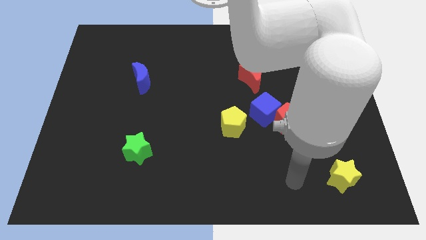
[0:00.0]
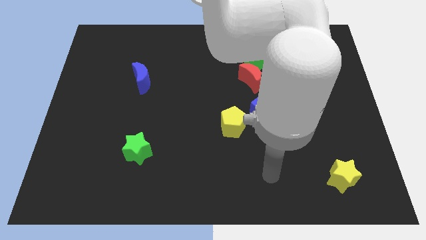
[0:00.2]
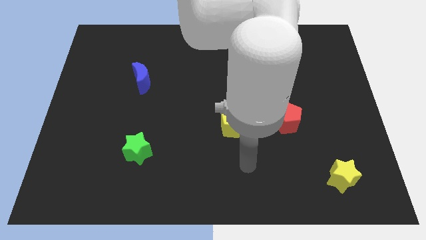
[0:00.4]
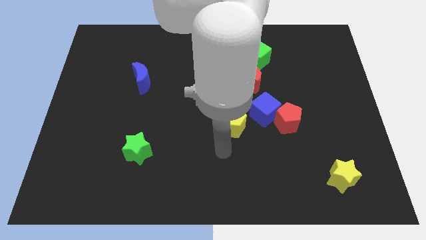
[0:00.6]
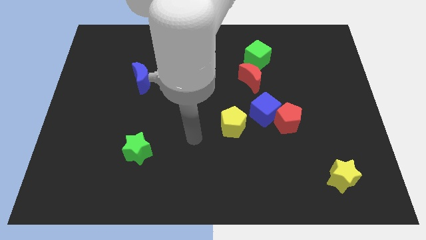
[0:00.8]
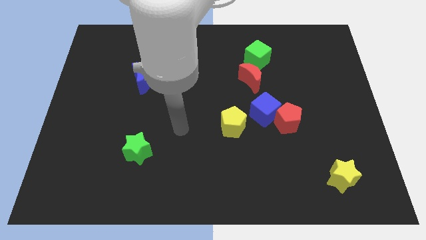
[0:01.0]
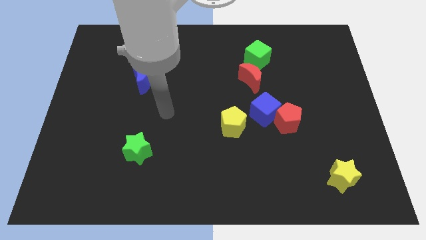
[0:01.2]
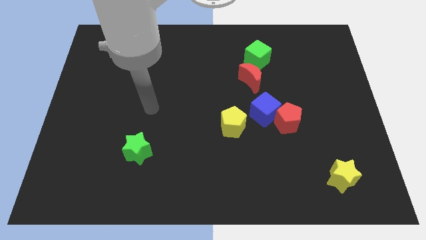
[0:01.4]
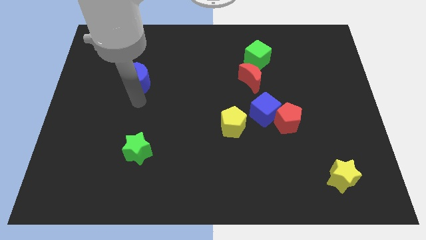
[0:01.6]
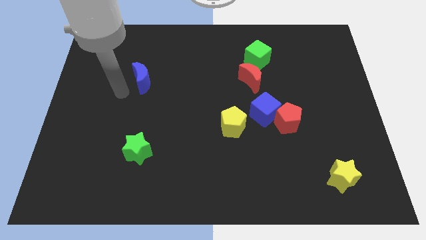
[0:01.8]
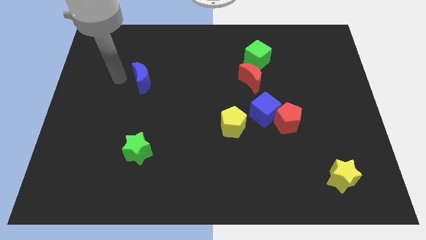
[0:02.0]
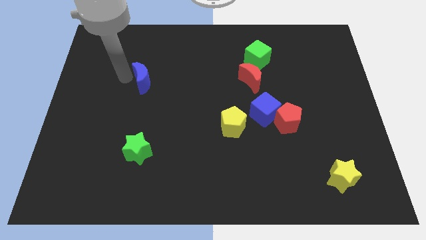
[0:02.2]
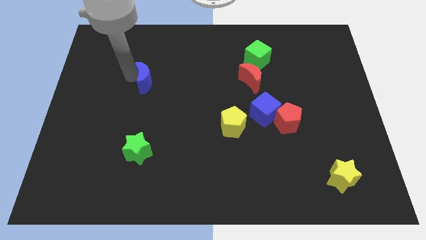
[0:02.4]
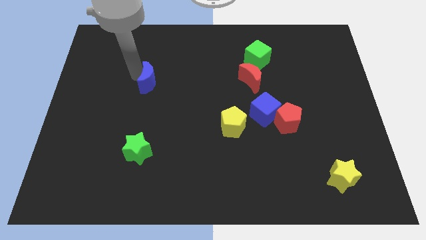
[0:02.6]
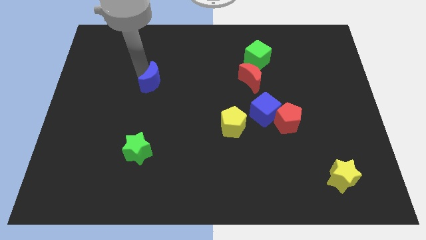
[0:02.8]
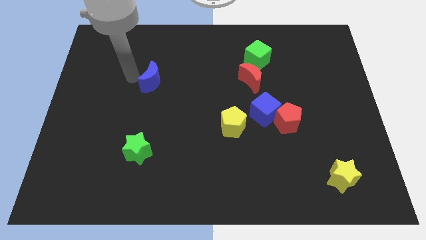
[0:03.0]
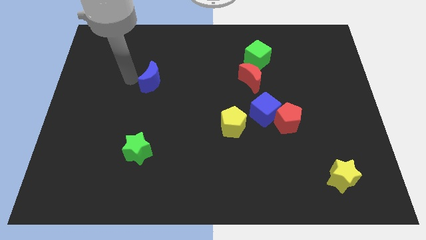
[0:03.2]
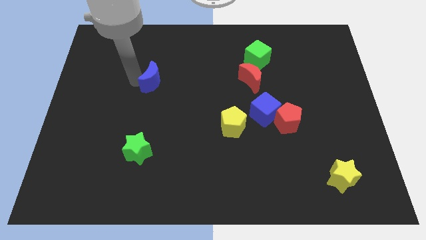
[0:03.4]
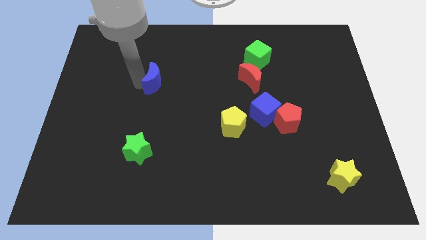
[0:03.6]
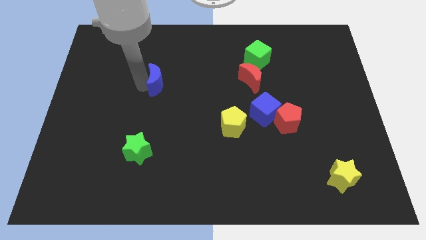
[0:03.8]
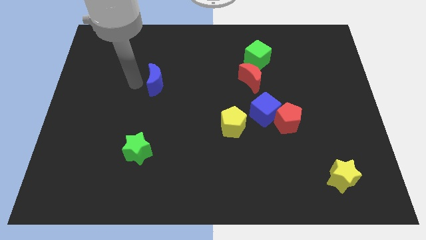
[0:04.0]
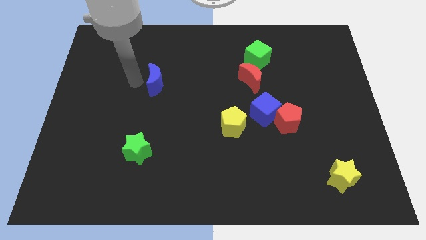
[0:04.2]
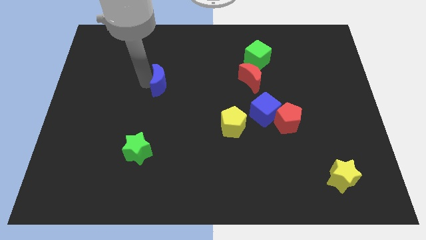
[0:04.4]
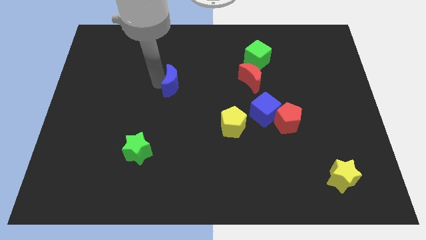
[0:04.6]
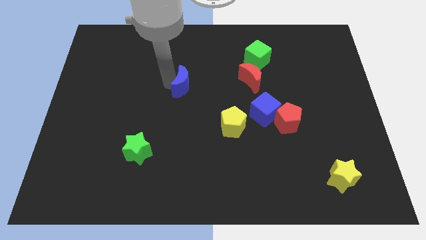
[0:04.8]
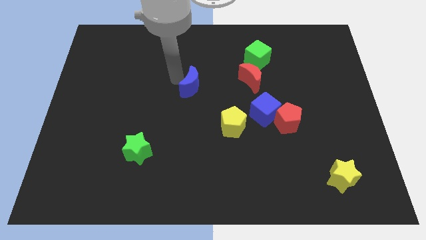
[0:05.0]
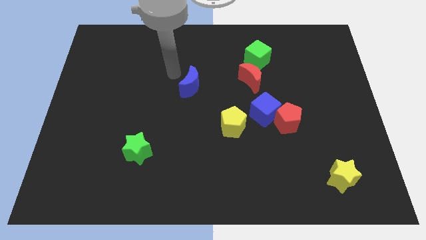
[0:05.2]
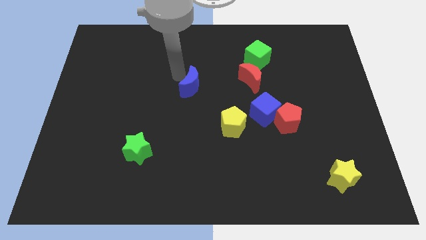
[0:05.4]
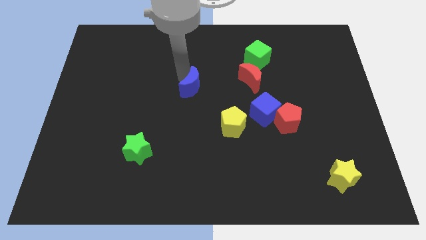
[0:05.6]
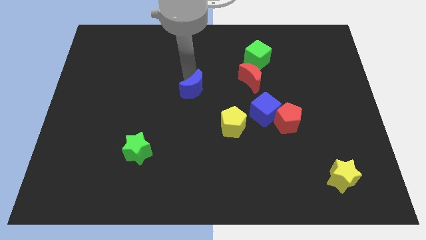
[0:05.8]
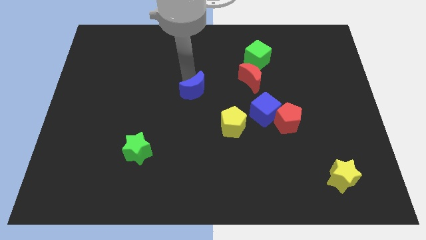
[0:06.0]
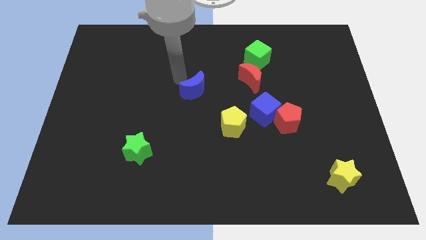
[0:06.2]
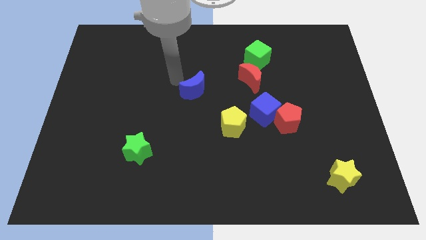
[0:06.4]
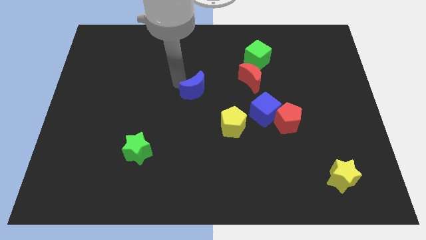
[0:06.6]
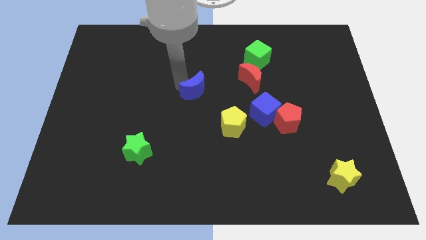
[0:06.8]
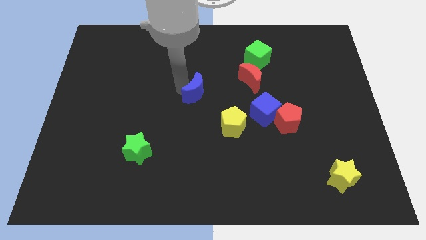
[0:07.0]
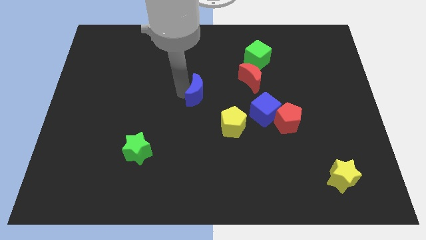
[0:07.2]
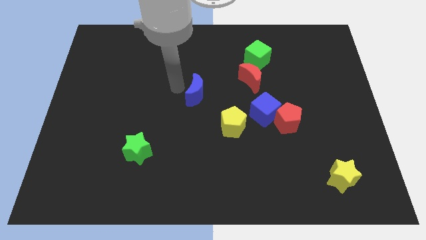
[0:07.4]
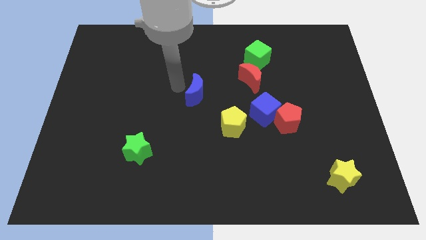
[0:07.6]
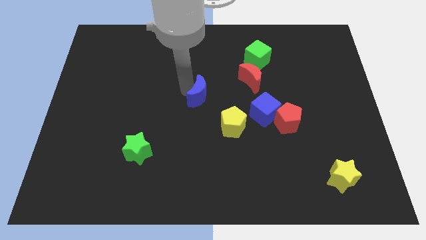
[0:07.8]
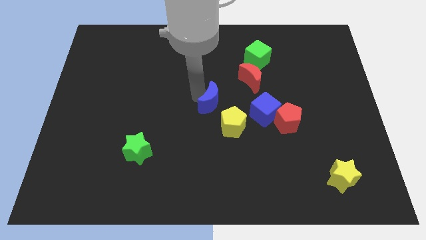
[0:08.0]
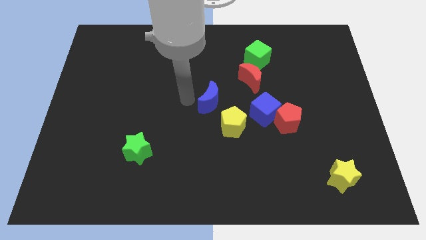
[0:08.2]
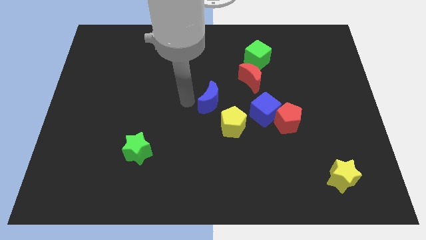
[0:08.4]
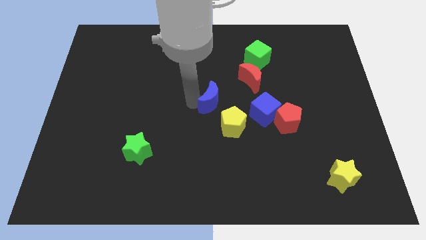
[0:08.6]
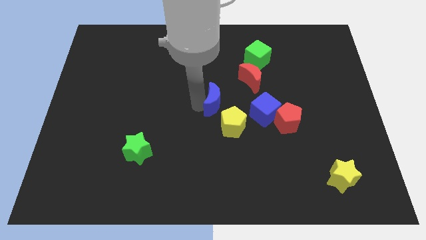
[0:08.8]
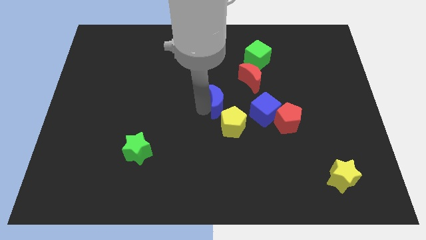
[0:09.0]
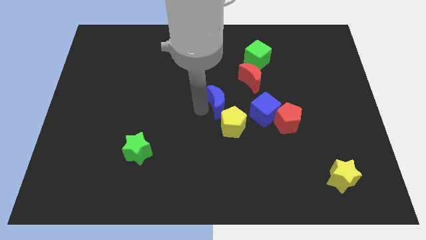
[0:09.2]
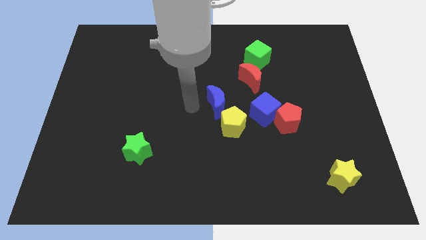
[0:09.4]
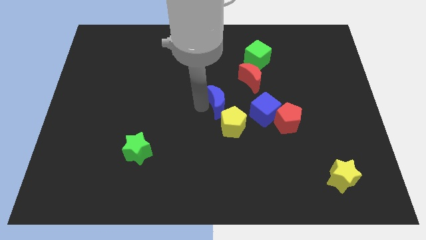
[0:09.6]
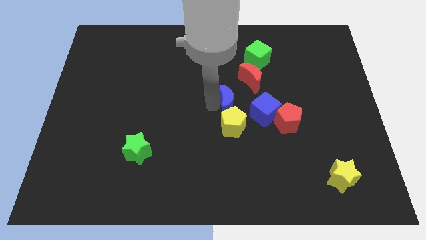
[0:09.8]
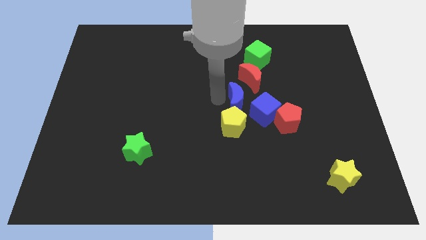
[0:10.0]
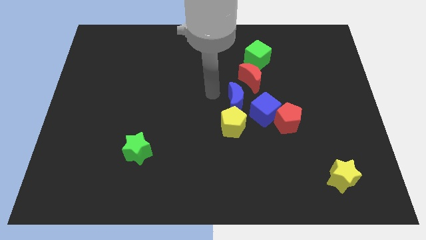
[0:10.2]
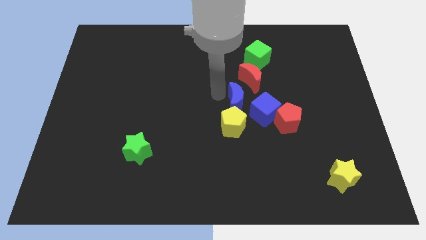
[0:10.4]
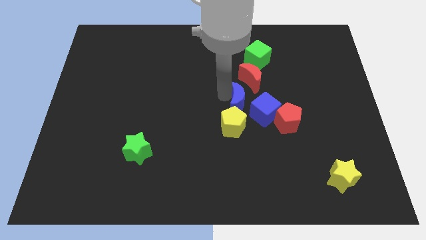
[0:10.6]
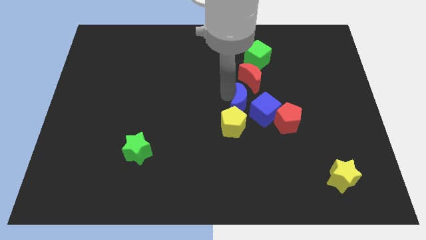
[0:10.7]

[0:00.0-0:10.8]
slide the blue moon close to the blue cube

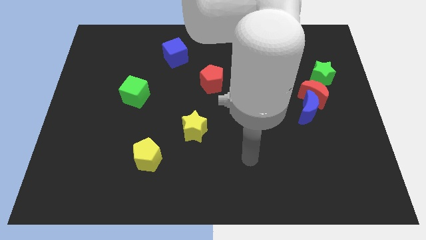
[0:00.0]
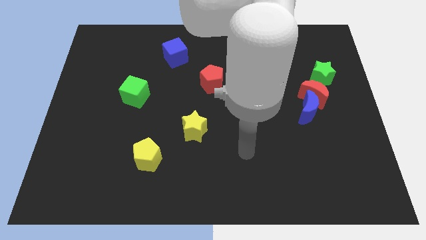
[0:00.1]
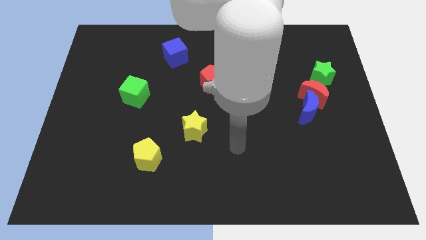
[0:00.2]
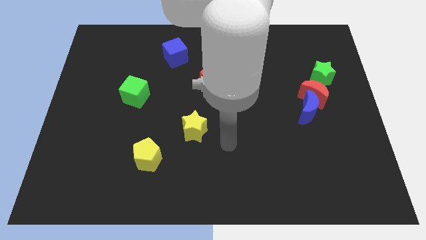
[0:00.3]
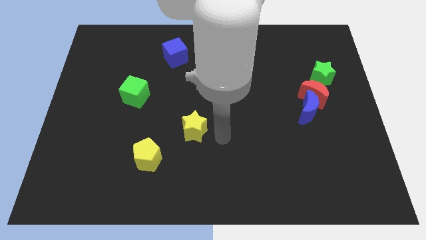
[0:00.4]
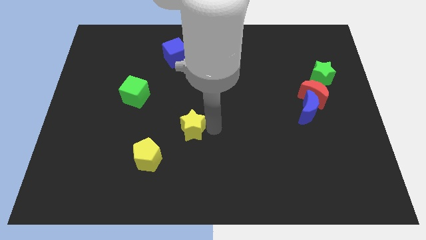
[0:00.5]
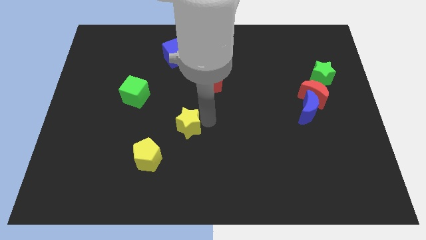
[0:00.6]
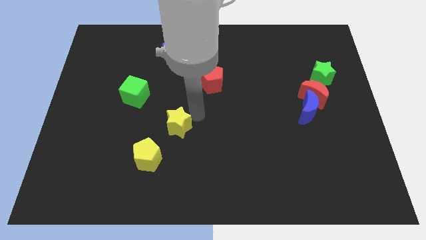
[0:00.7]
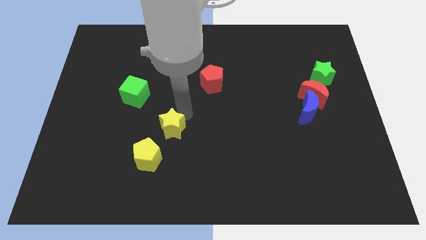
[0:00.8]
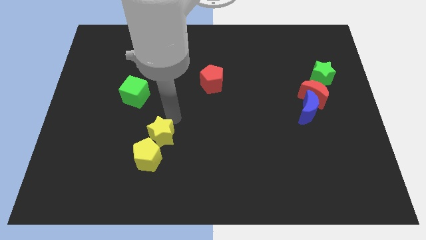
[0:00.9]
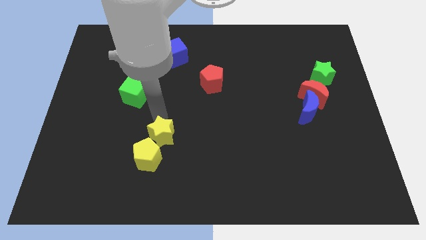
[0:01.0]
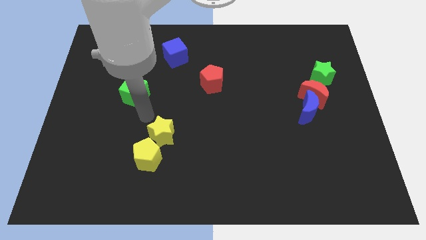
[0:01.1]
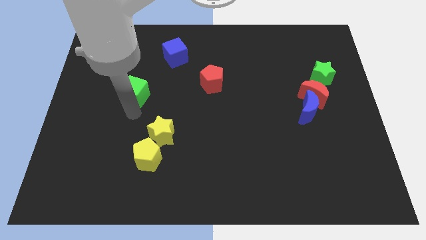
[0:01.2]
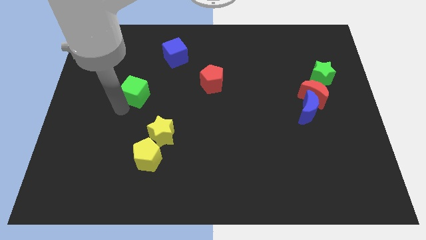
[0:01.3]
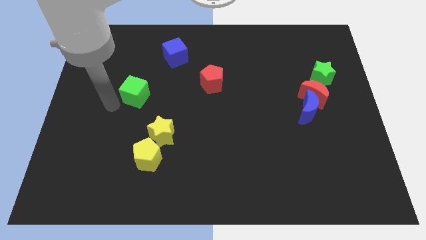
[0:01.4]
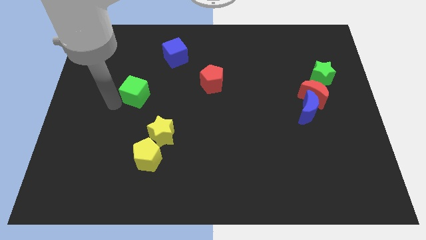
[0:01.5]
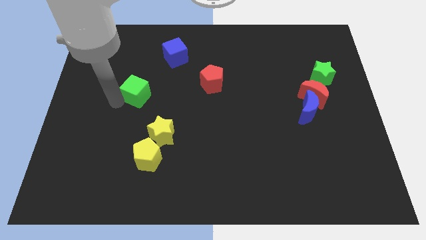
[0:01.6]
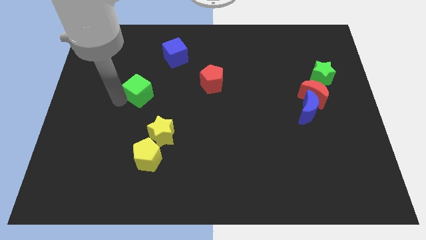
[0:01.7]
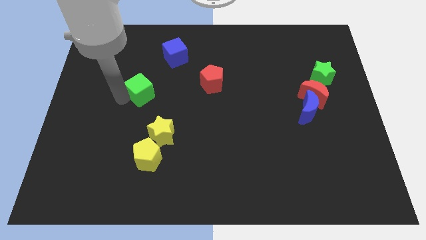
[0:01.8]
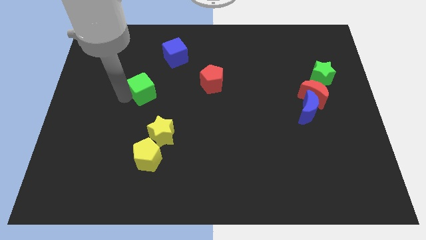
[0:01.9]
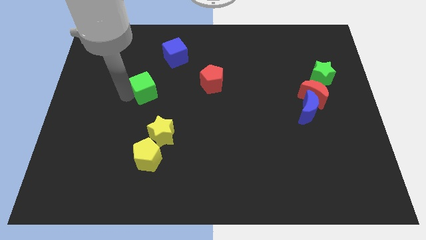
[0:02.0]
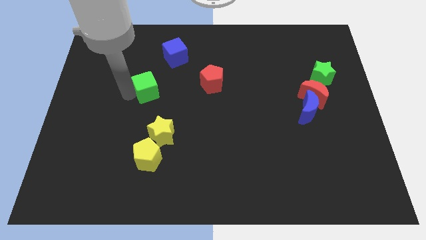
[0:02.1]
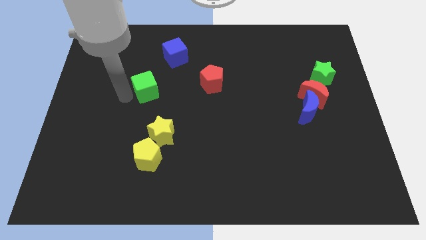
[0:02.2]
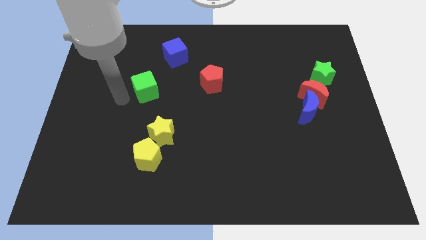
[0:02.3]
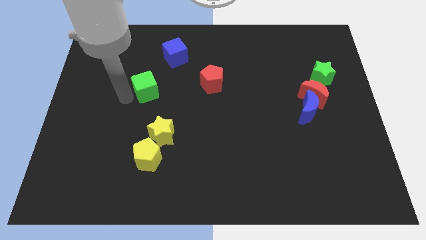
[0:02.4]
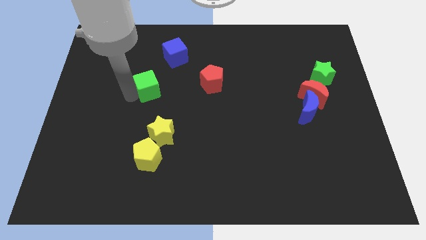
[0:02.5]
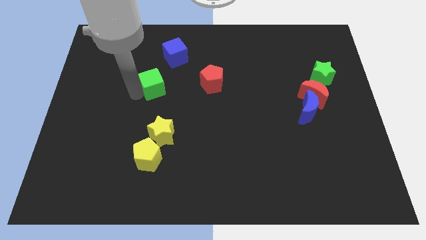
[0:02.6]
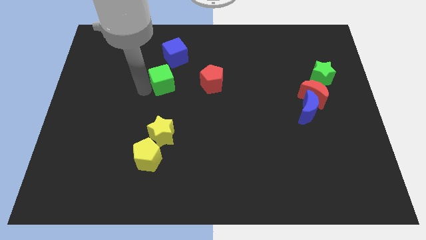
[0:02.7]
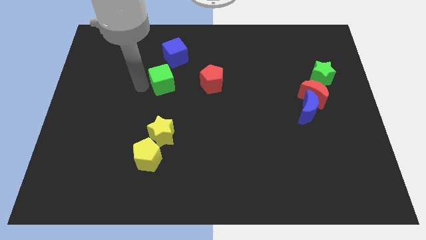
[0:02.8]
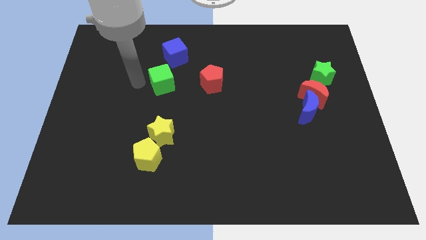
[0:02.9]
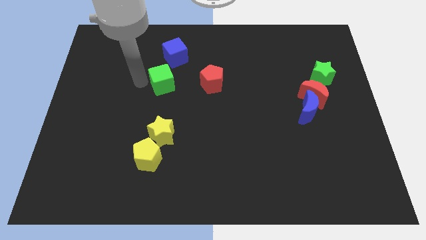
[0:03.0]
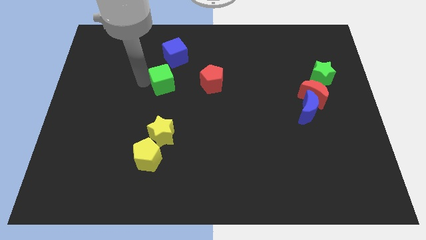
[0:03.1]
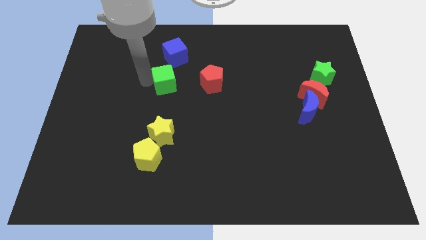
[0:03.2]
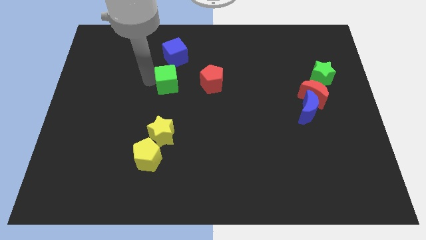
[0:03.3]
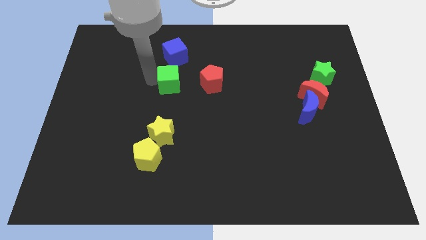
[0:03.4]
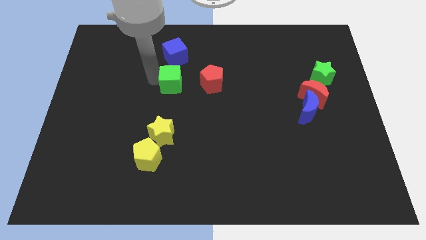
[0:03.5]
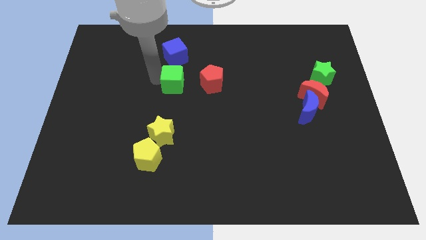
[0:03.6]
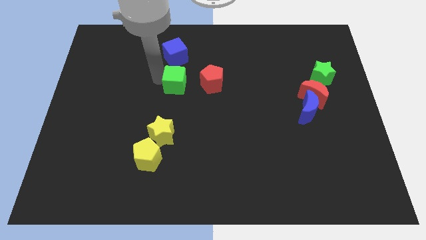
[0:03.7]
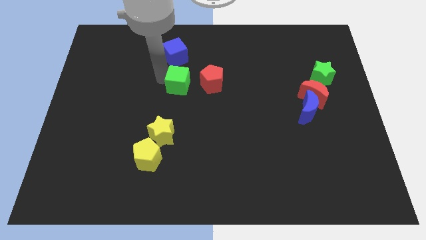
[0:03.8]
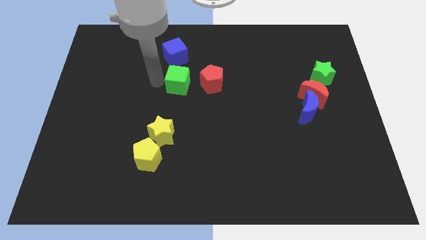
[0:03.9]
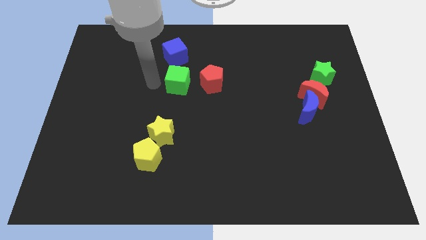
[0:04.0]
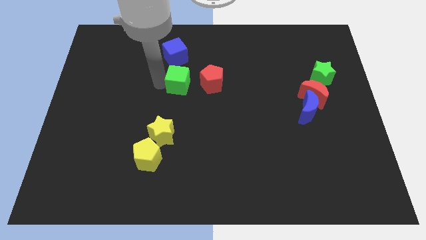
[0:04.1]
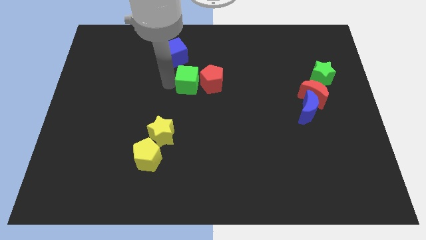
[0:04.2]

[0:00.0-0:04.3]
put the green cube close to the red pentagon
